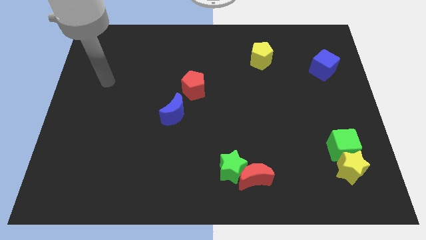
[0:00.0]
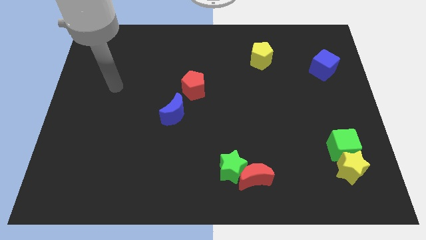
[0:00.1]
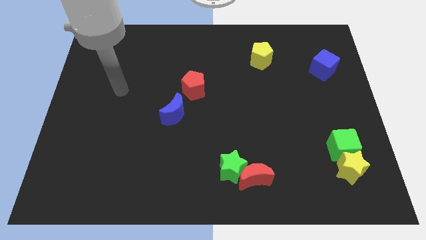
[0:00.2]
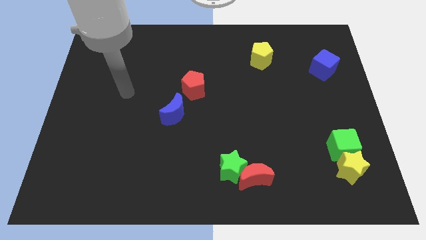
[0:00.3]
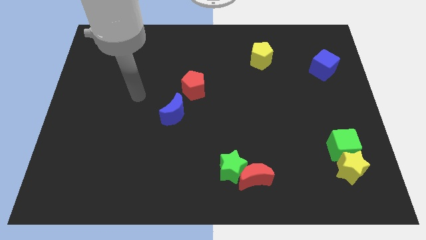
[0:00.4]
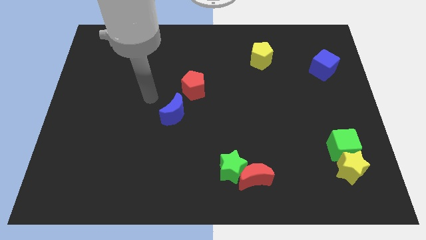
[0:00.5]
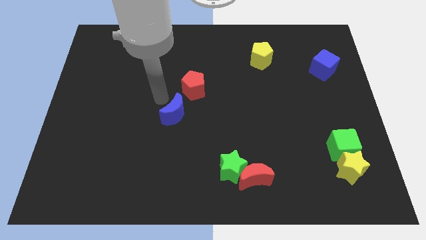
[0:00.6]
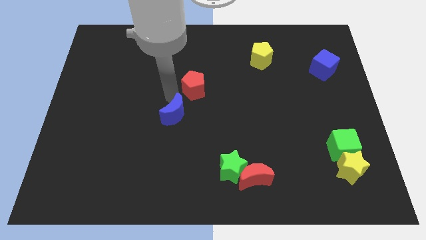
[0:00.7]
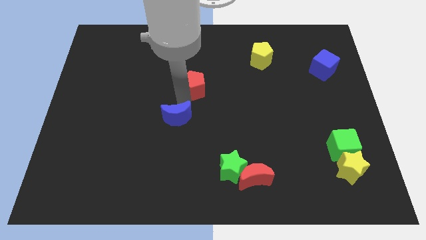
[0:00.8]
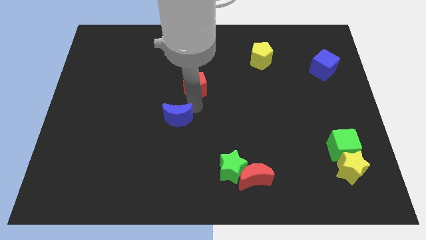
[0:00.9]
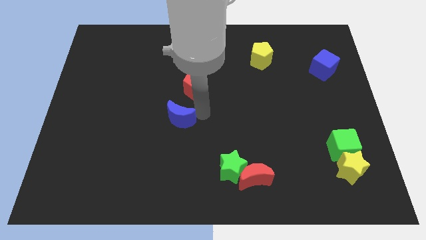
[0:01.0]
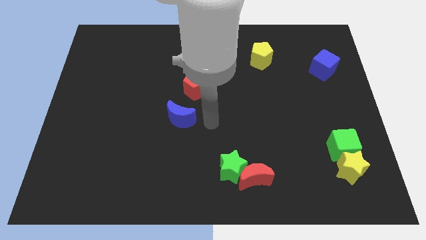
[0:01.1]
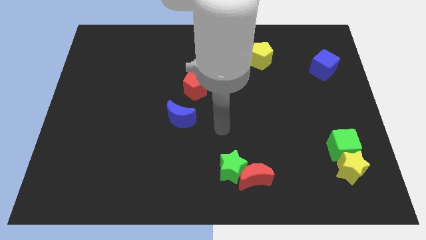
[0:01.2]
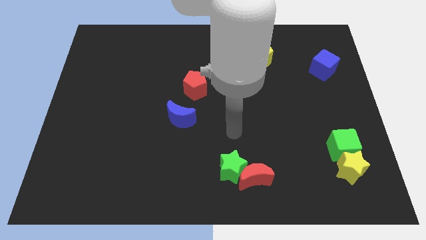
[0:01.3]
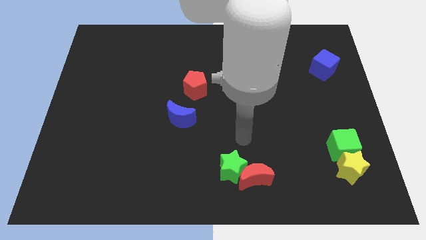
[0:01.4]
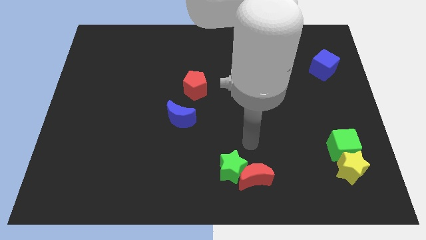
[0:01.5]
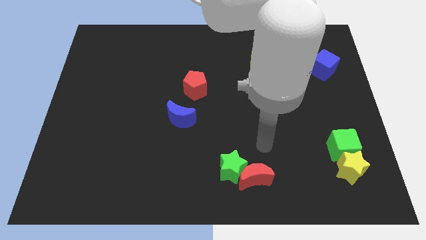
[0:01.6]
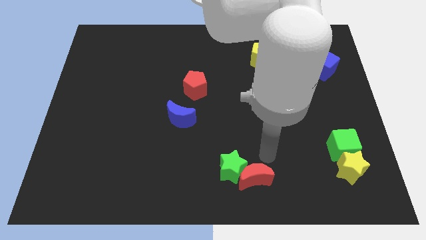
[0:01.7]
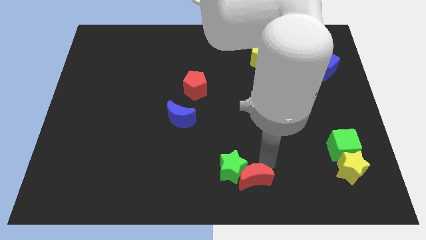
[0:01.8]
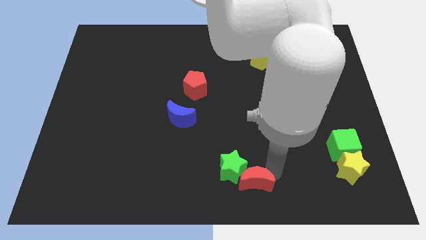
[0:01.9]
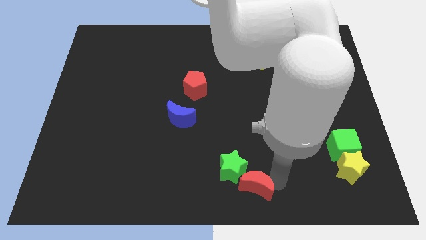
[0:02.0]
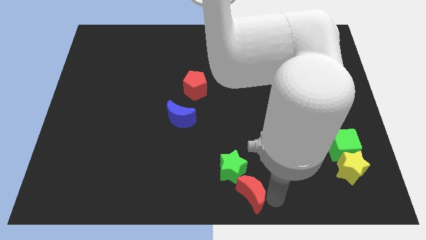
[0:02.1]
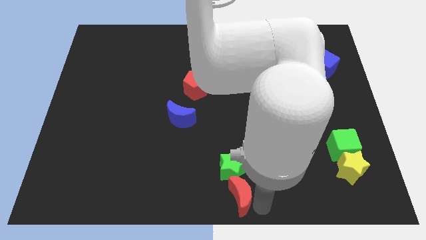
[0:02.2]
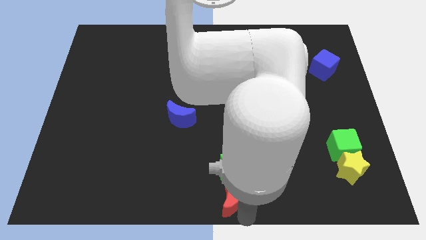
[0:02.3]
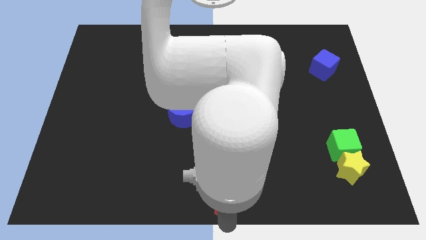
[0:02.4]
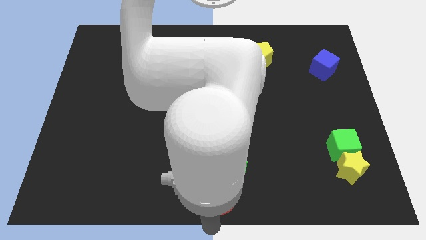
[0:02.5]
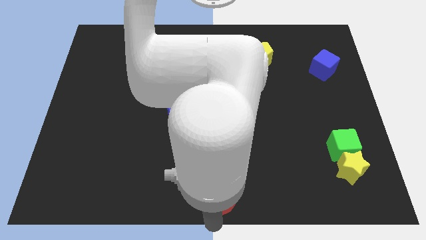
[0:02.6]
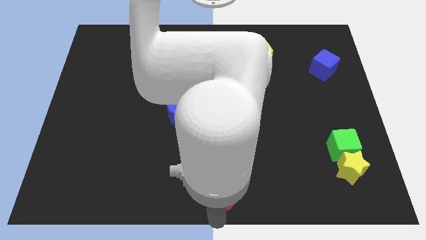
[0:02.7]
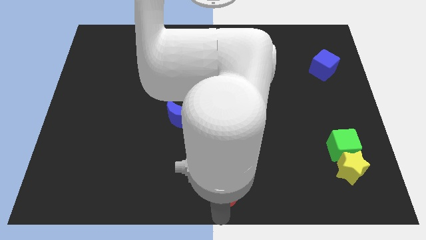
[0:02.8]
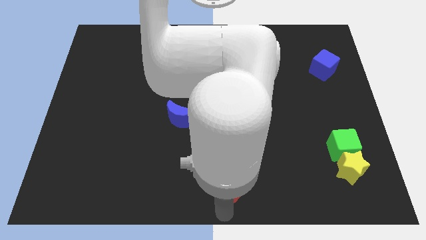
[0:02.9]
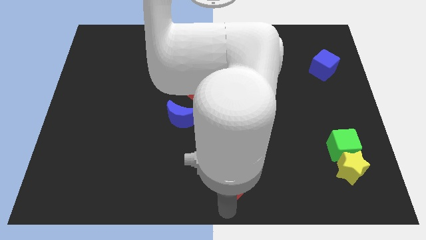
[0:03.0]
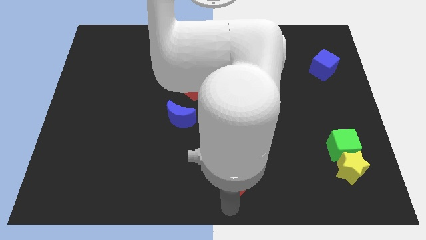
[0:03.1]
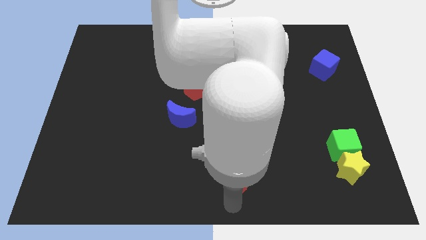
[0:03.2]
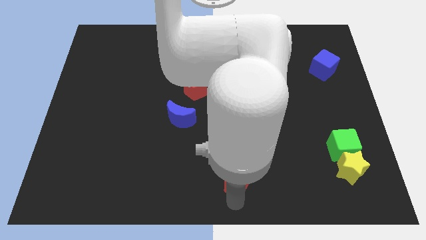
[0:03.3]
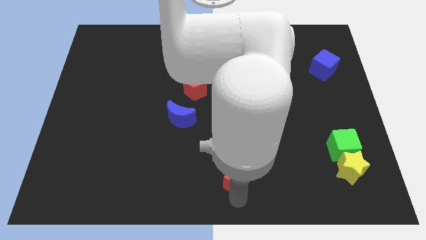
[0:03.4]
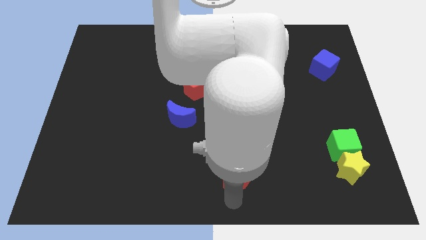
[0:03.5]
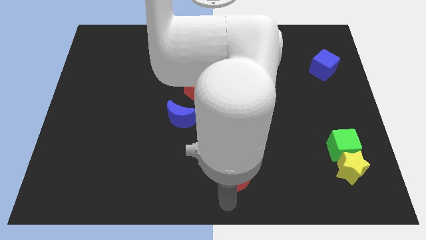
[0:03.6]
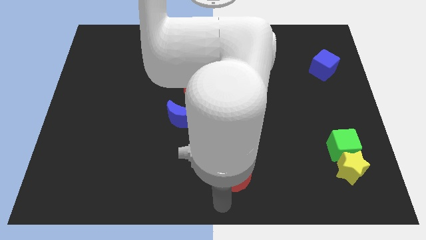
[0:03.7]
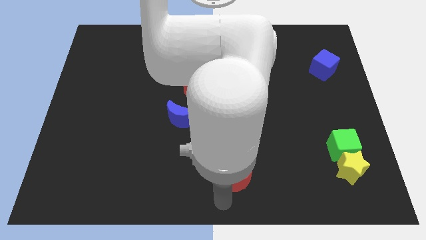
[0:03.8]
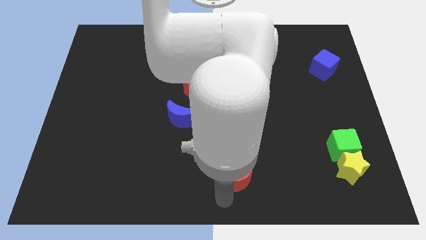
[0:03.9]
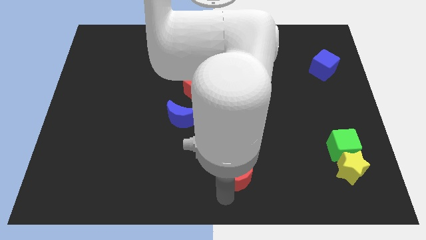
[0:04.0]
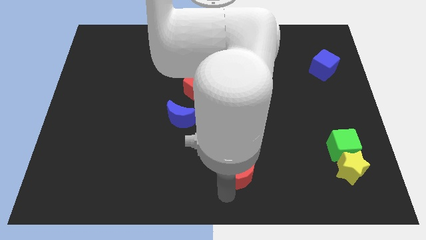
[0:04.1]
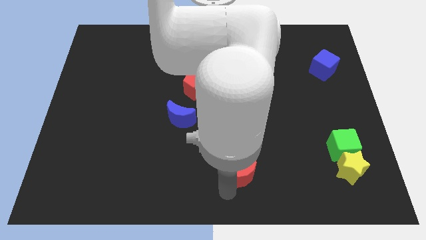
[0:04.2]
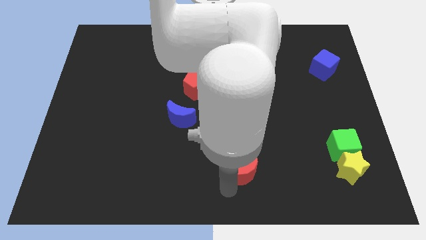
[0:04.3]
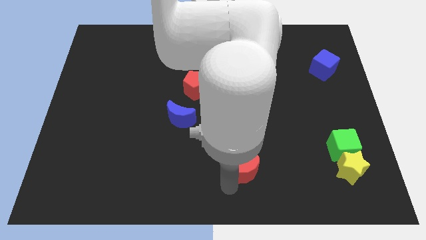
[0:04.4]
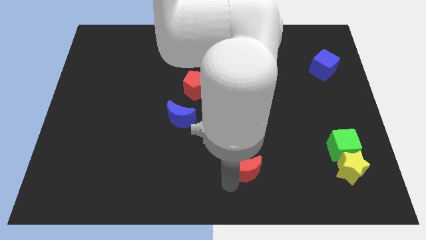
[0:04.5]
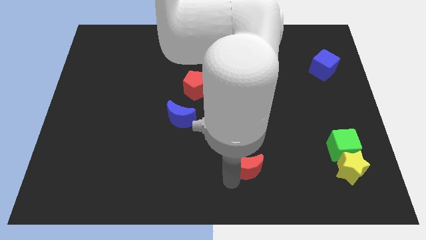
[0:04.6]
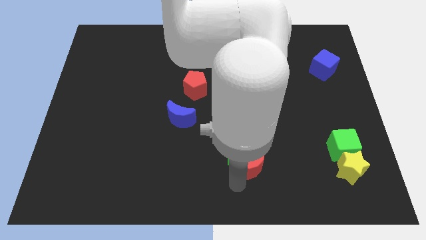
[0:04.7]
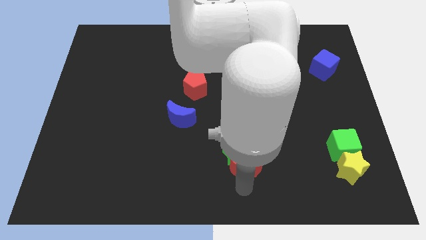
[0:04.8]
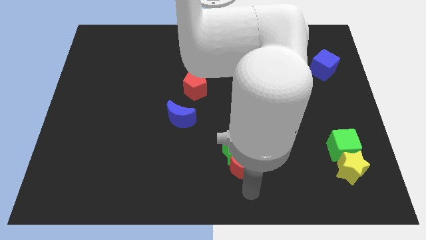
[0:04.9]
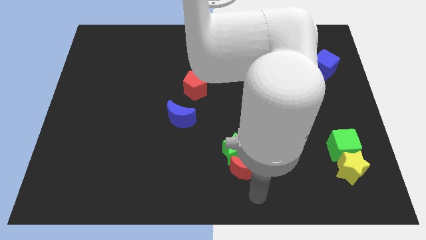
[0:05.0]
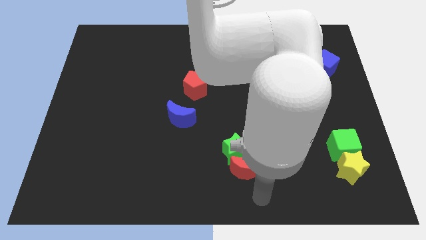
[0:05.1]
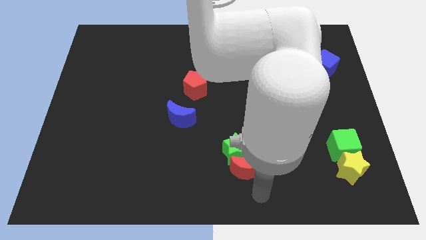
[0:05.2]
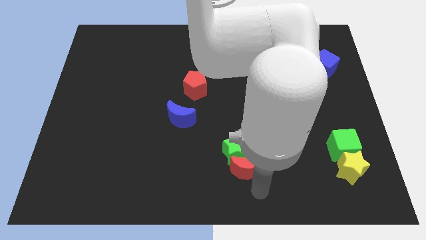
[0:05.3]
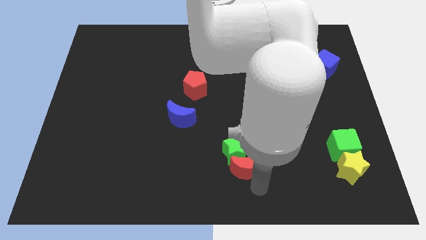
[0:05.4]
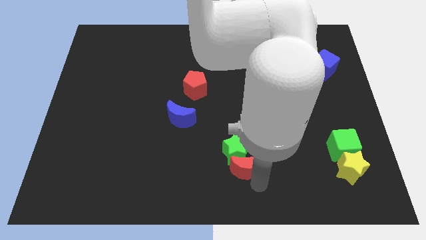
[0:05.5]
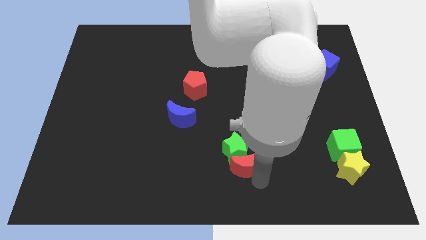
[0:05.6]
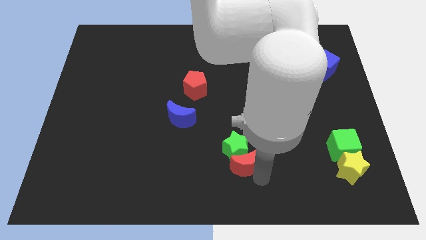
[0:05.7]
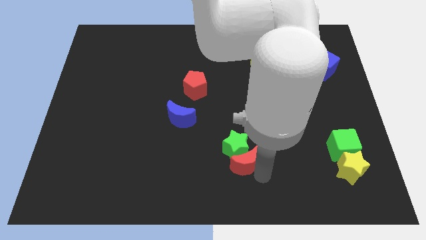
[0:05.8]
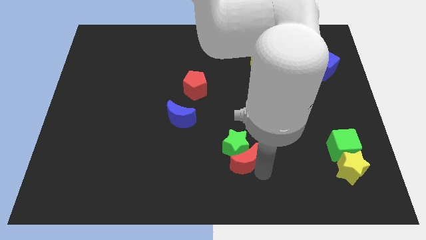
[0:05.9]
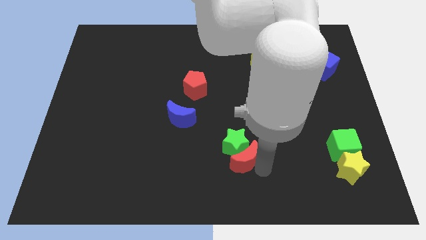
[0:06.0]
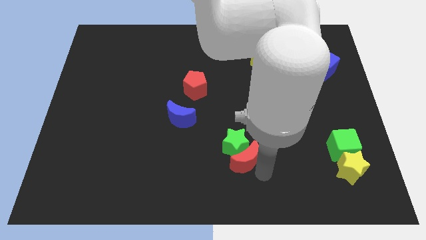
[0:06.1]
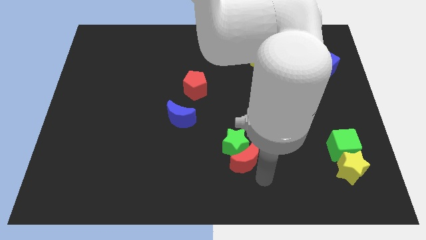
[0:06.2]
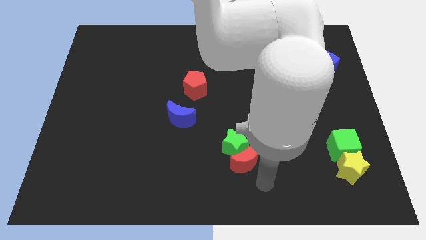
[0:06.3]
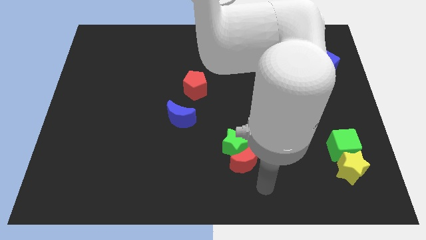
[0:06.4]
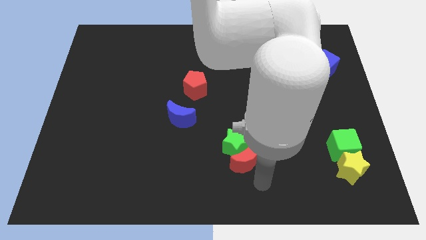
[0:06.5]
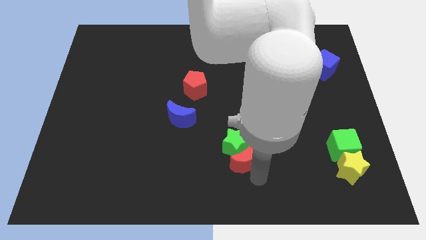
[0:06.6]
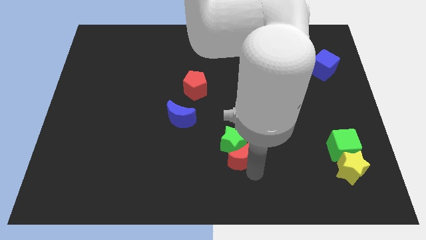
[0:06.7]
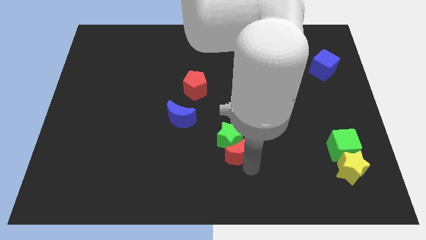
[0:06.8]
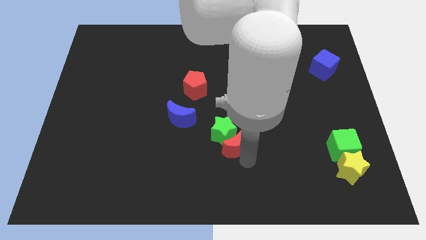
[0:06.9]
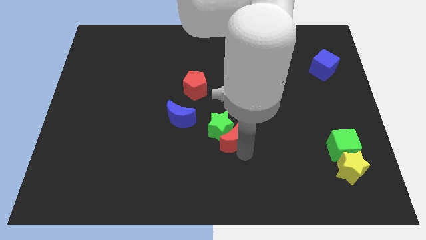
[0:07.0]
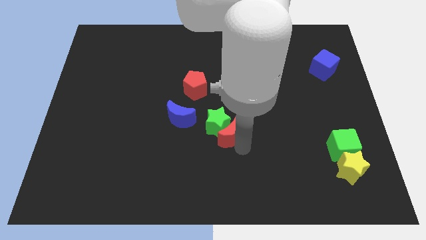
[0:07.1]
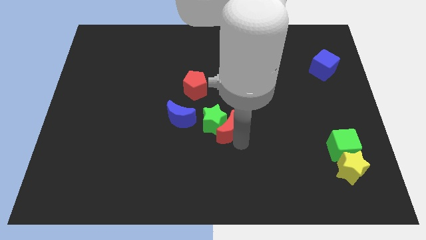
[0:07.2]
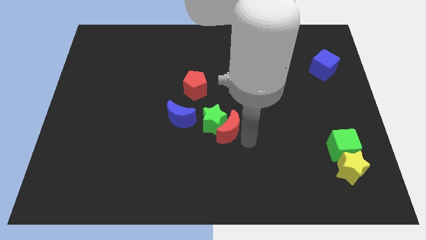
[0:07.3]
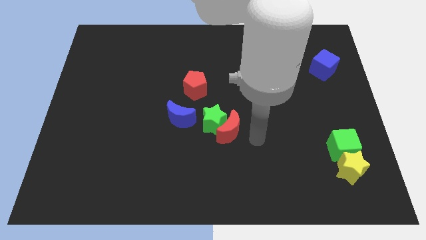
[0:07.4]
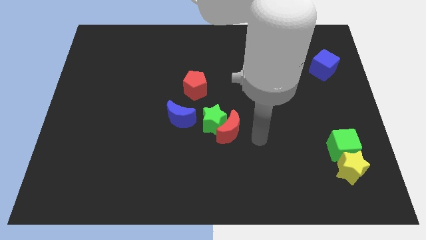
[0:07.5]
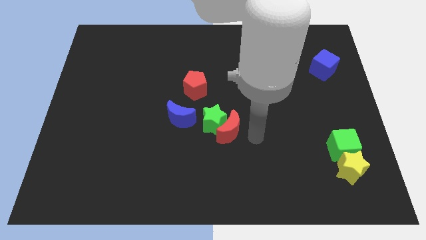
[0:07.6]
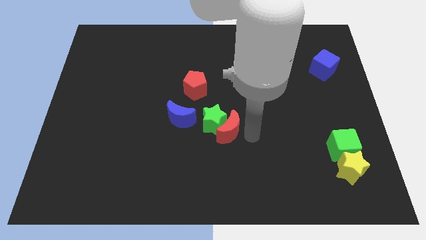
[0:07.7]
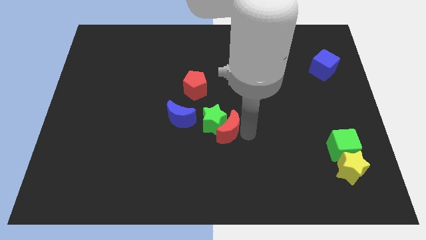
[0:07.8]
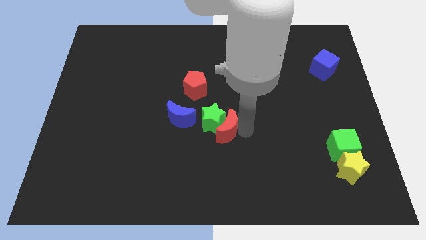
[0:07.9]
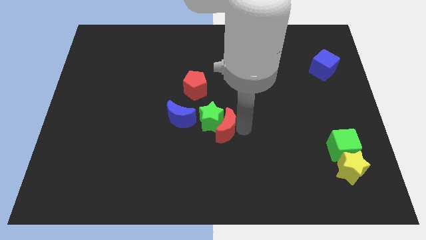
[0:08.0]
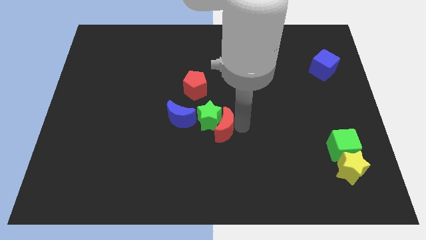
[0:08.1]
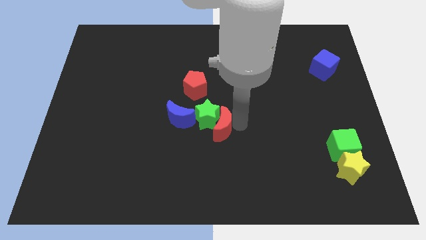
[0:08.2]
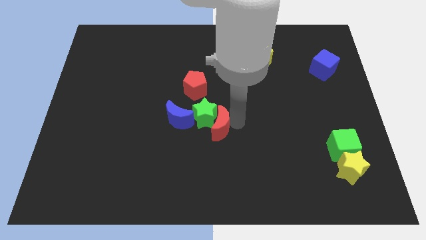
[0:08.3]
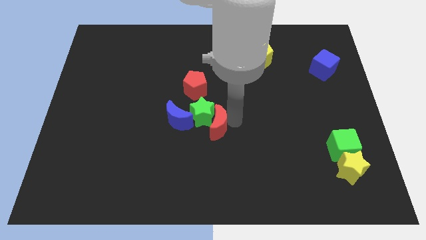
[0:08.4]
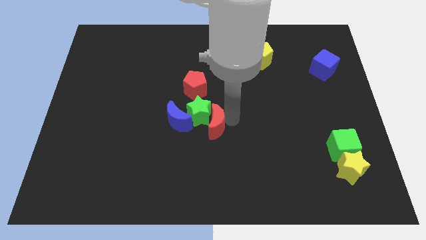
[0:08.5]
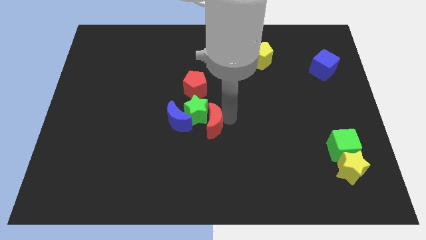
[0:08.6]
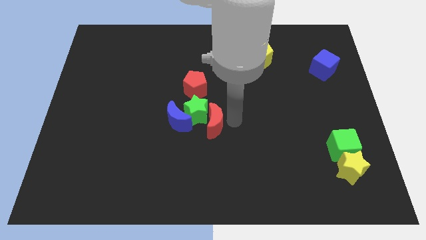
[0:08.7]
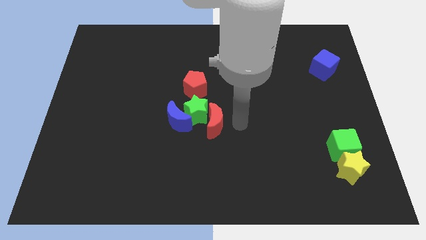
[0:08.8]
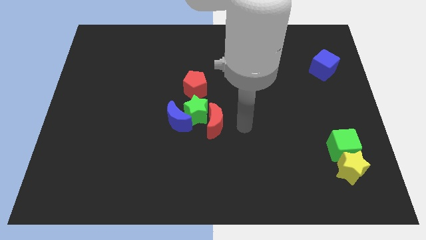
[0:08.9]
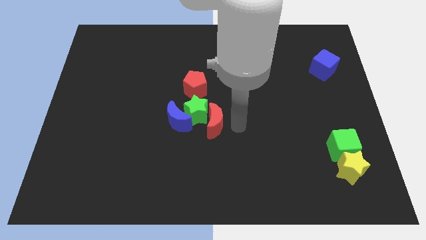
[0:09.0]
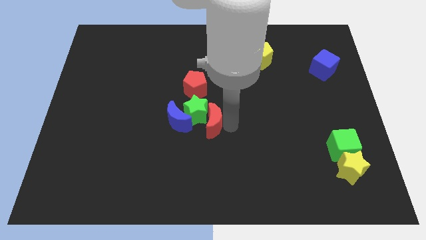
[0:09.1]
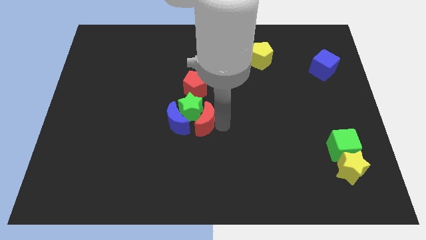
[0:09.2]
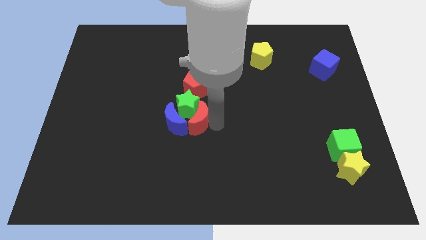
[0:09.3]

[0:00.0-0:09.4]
push the red moon to the blue moon
